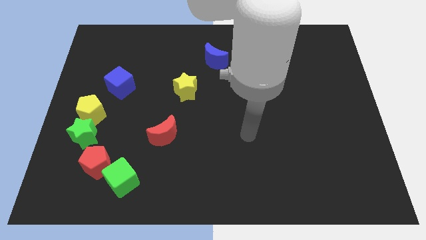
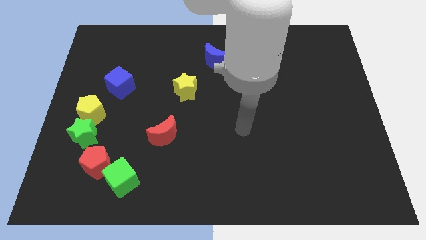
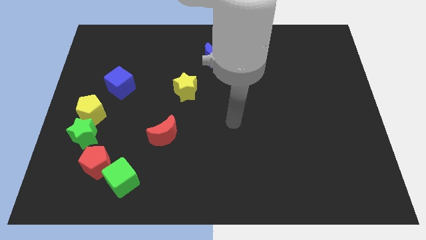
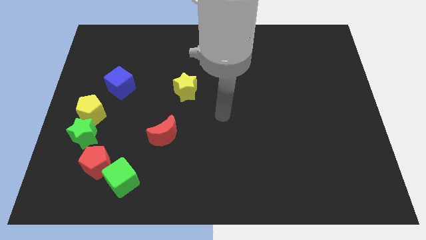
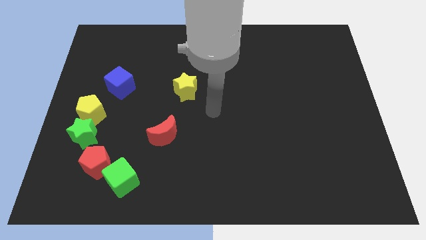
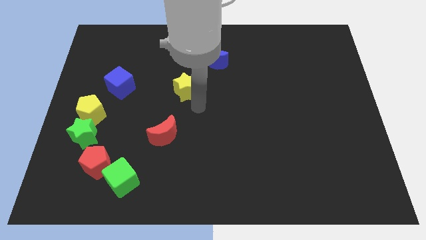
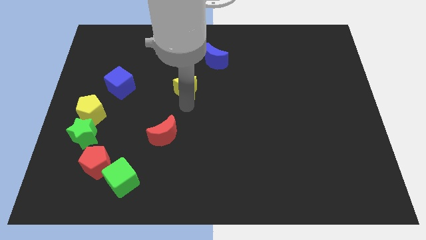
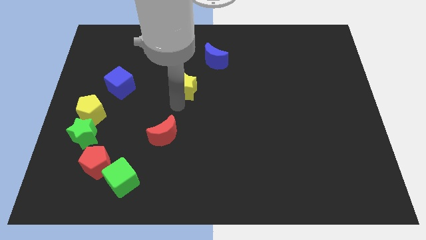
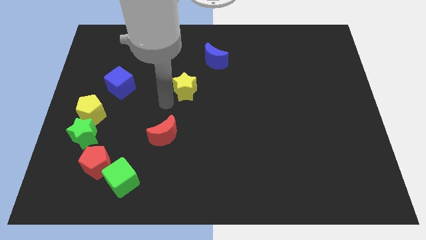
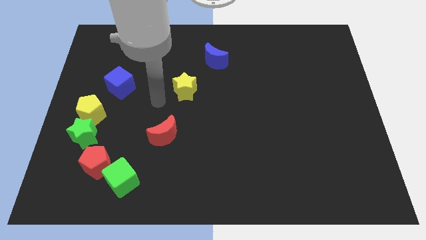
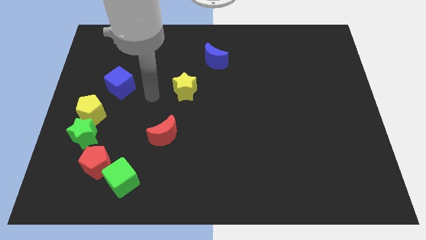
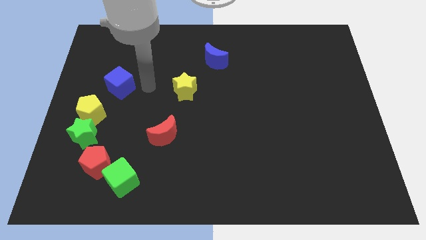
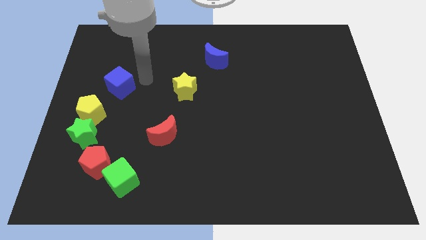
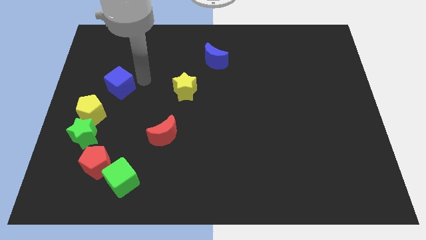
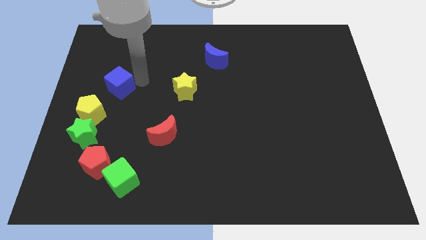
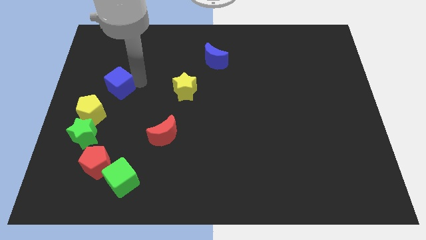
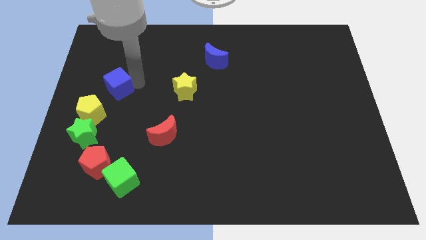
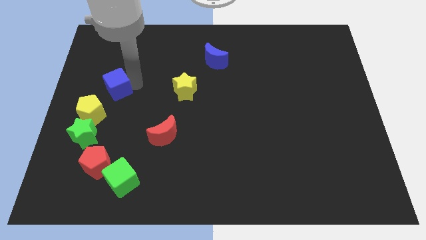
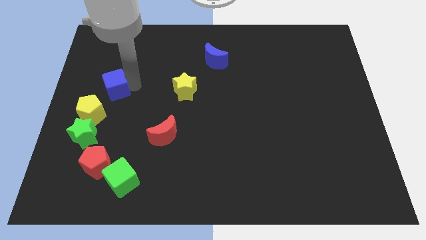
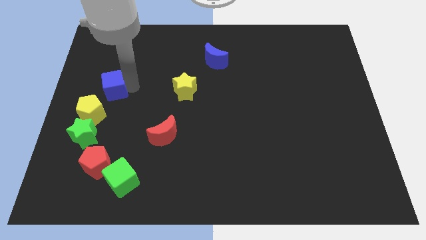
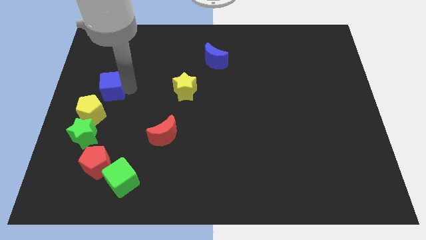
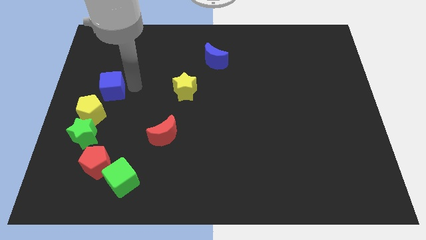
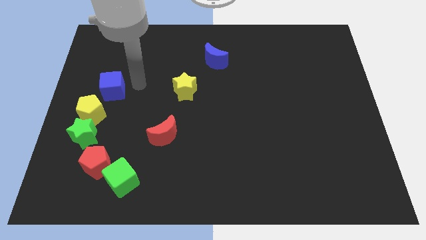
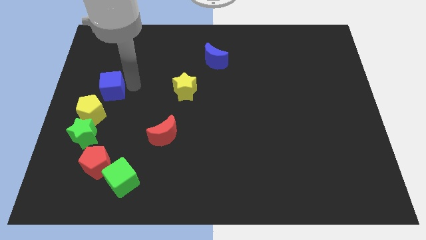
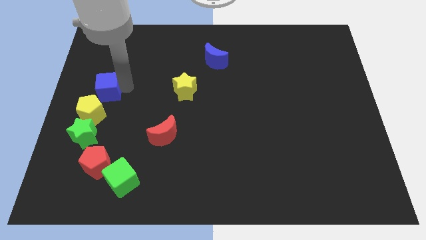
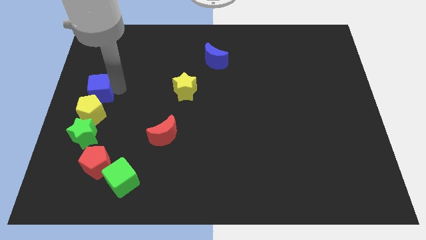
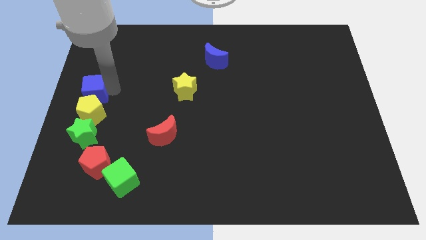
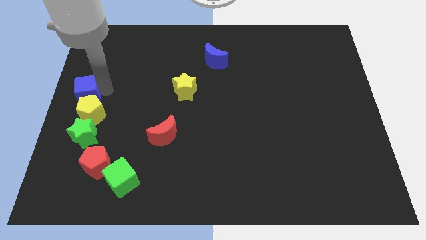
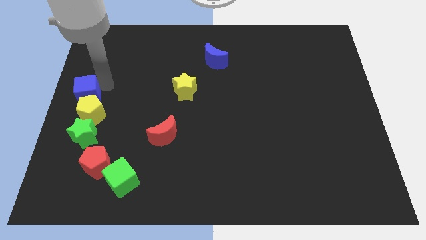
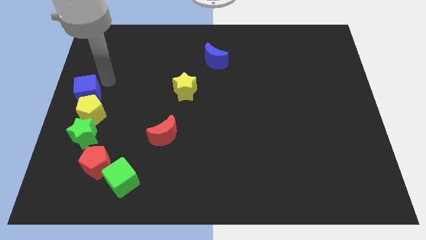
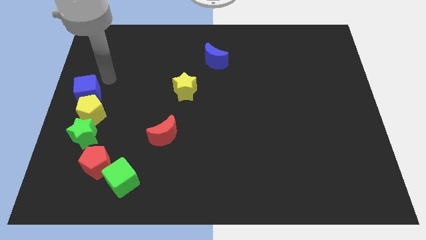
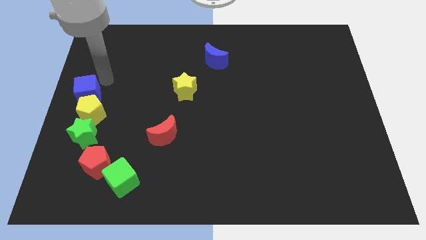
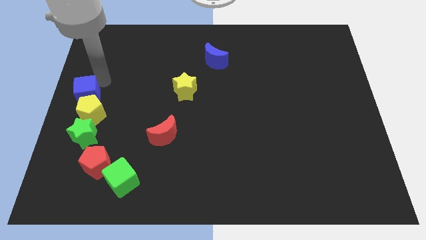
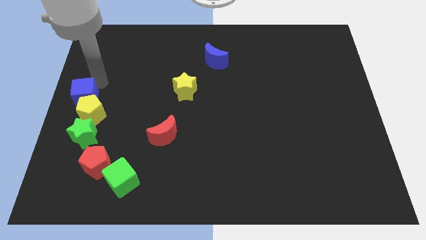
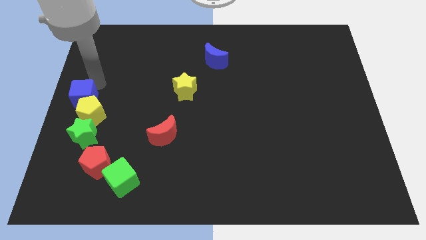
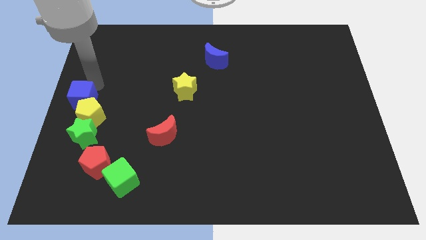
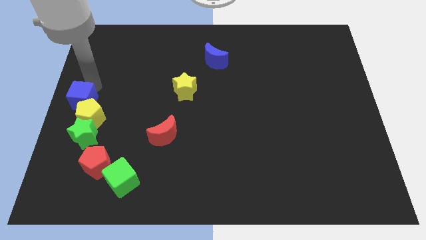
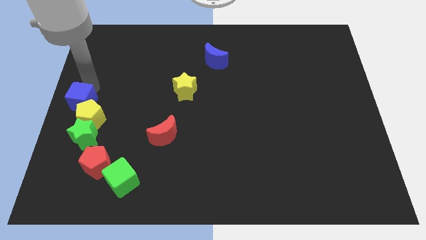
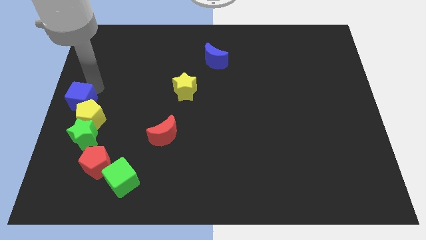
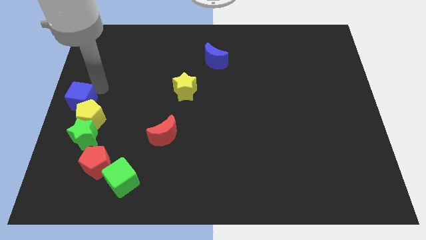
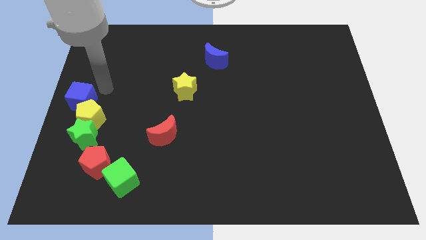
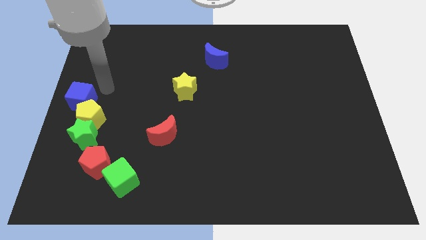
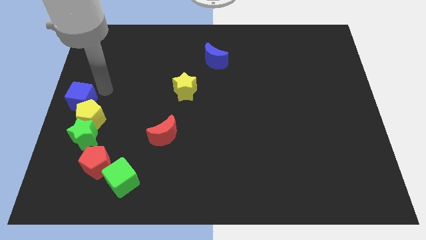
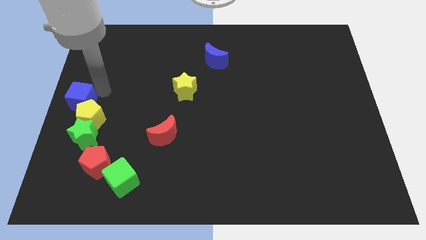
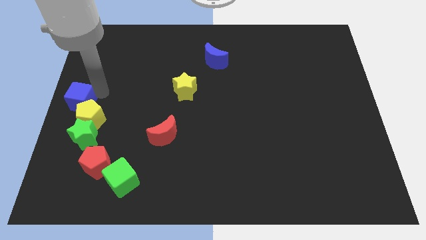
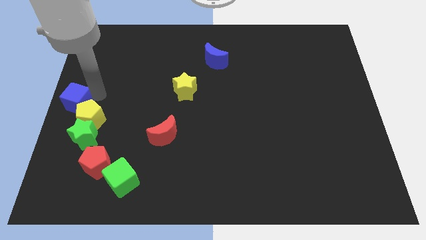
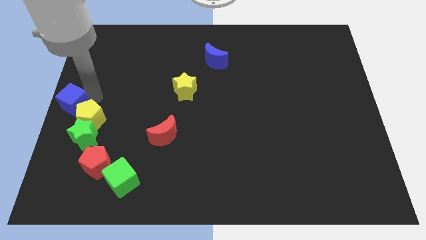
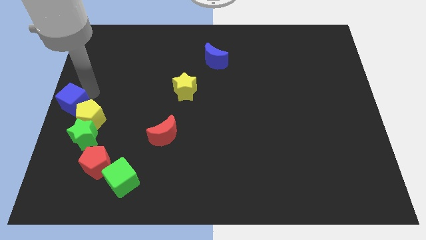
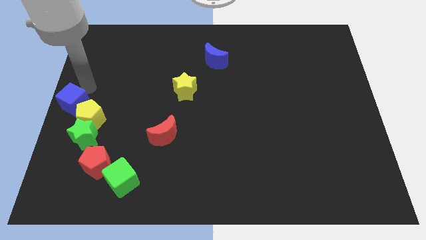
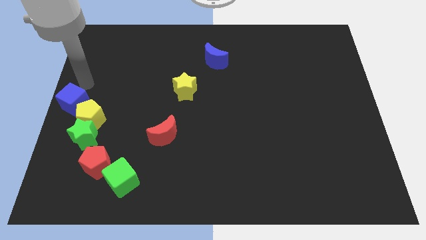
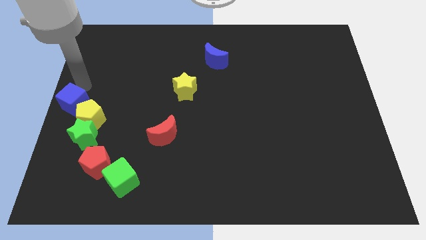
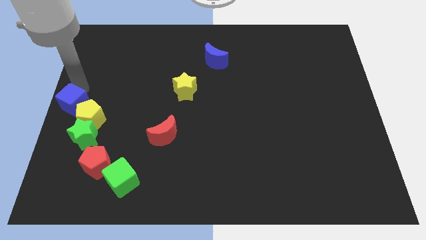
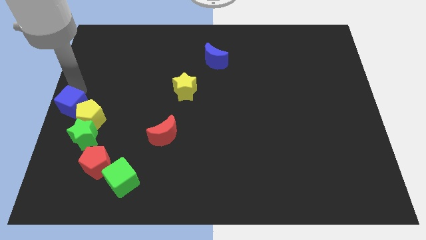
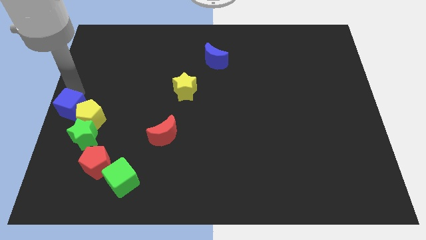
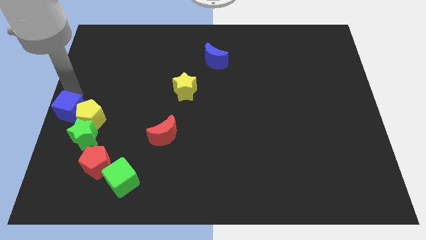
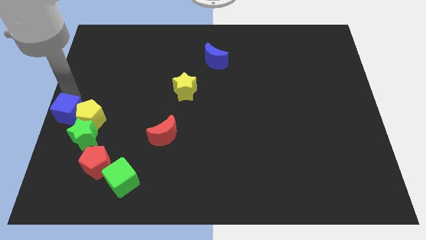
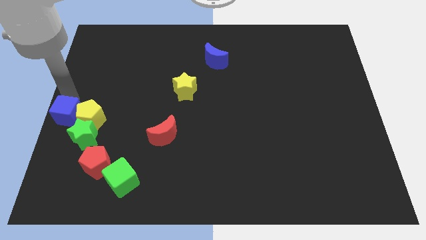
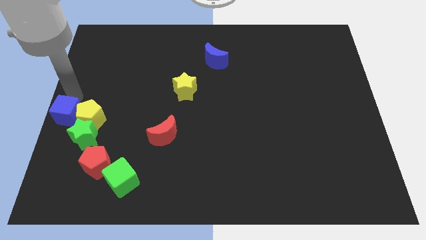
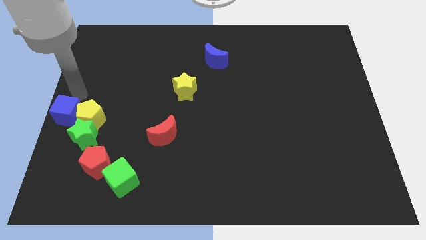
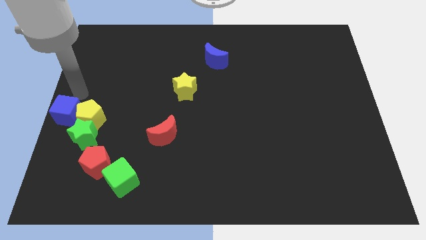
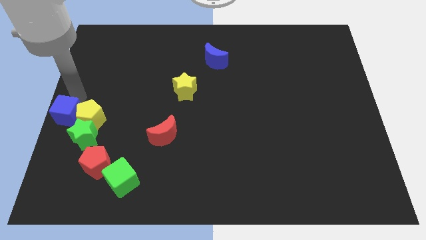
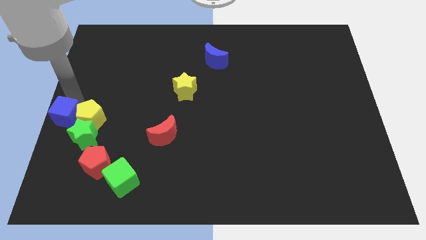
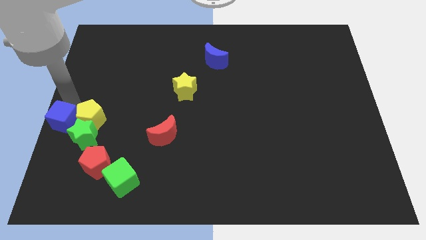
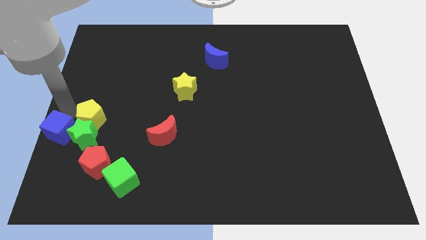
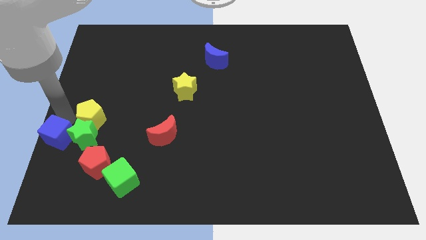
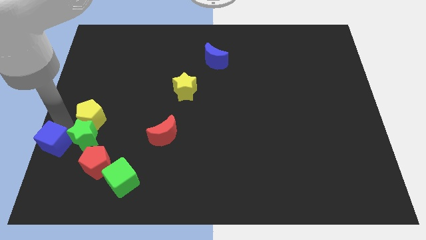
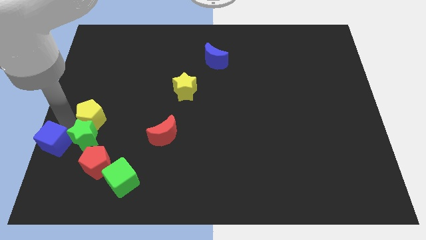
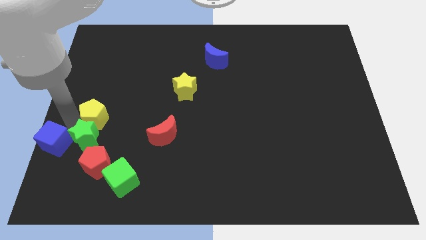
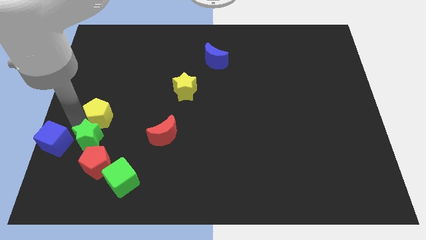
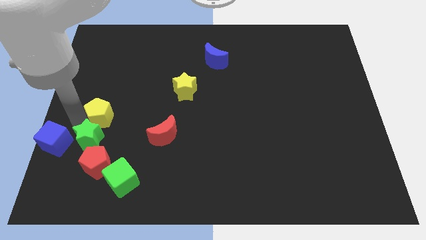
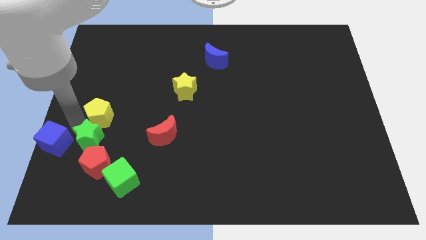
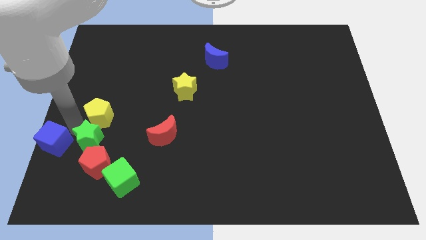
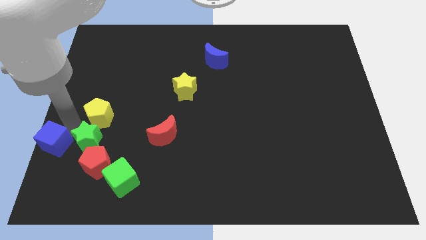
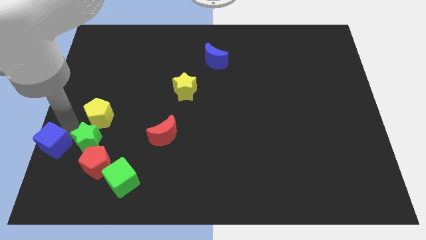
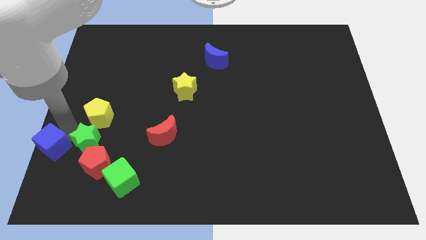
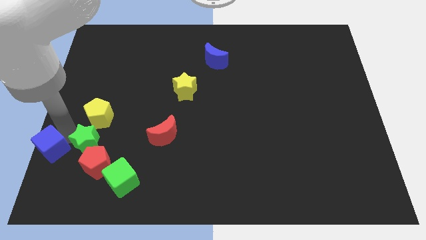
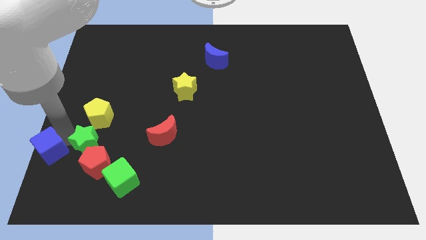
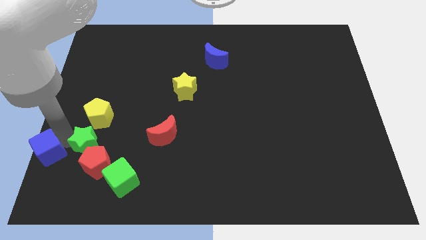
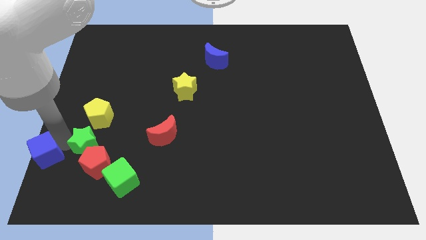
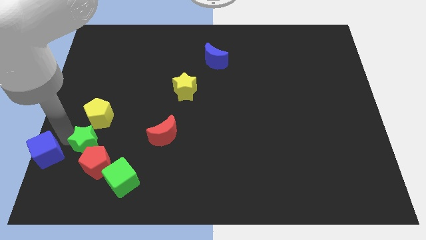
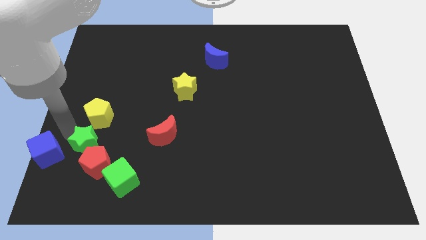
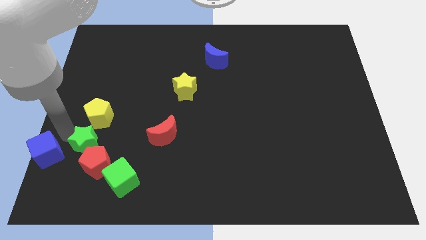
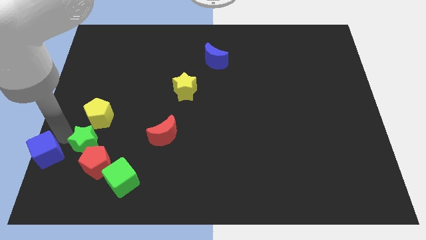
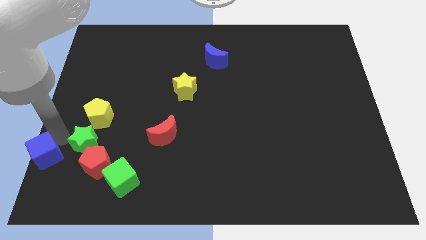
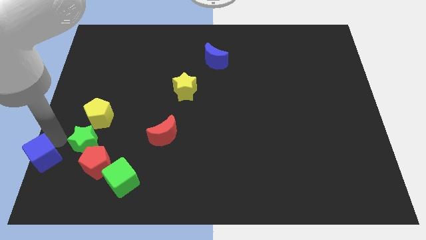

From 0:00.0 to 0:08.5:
slide the blue cube to the lower left corner
